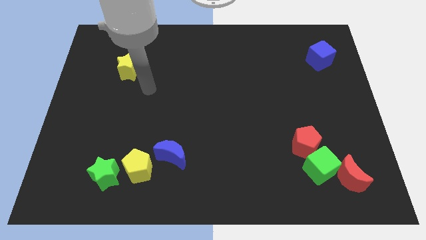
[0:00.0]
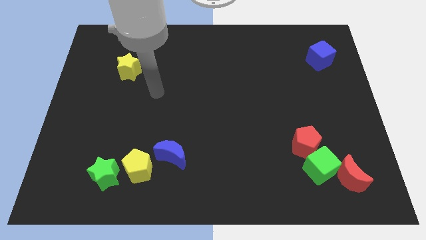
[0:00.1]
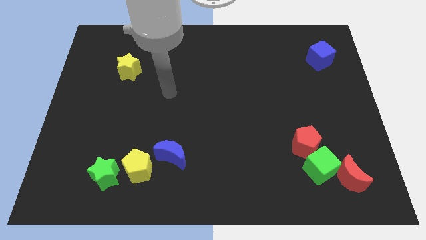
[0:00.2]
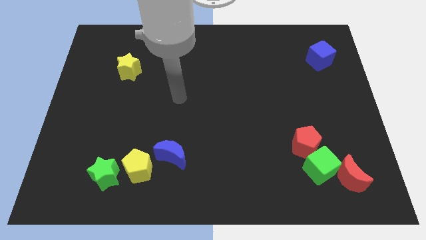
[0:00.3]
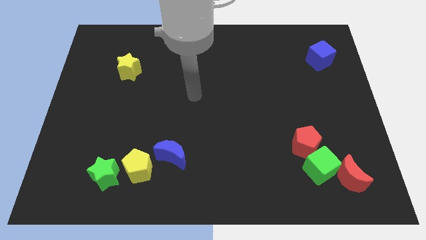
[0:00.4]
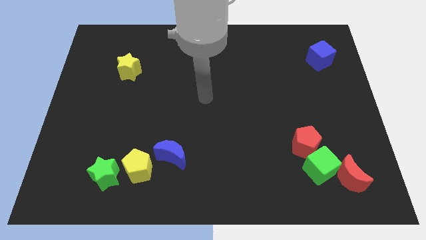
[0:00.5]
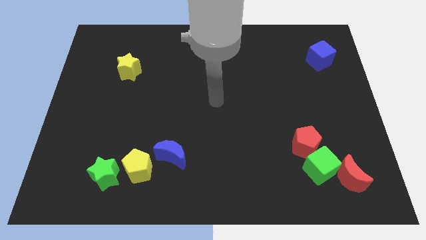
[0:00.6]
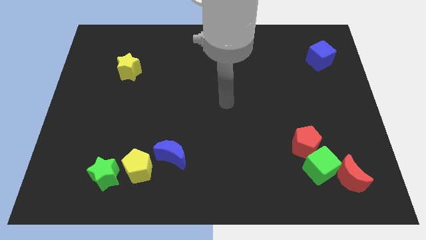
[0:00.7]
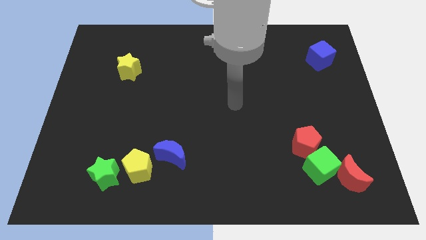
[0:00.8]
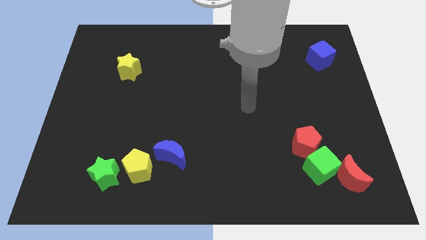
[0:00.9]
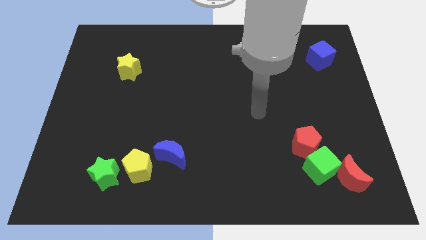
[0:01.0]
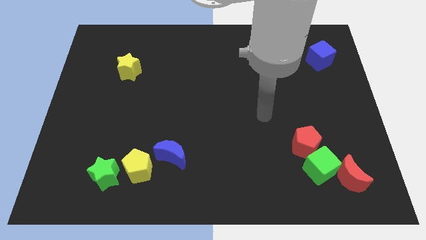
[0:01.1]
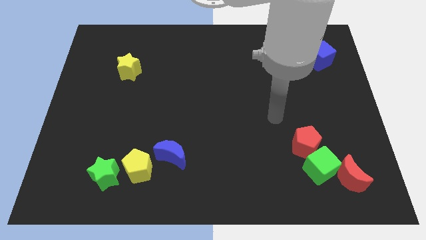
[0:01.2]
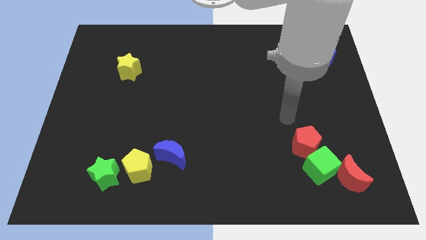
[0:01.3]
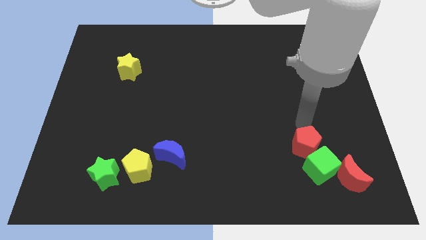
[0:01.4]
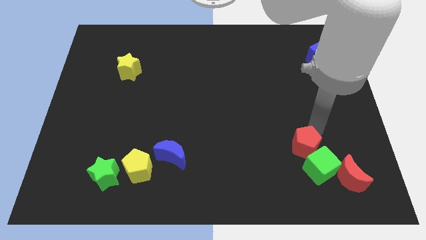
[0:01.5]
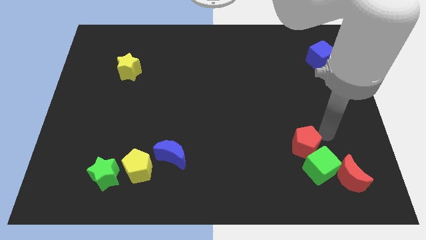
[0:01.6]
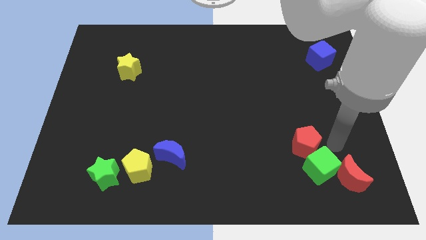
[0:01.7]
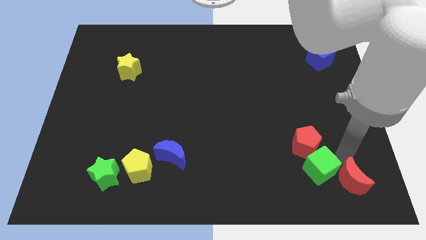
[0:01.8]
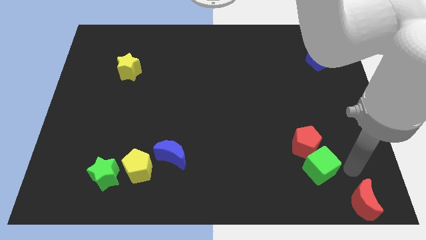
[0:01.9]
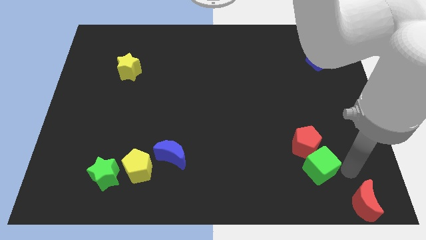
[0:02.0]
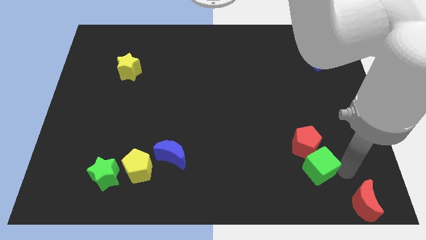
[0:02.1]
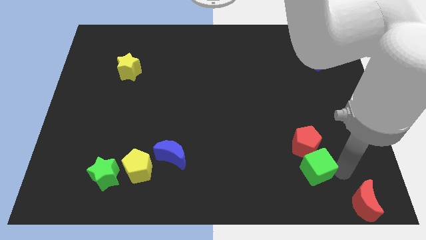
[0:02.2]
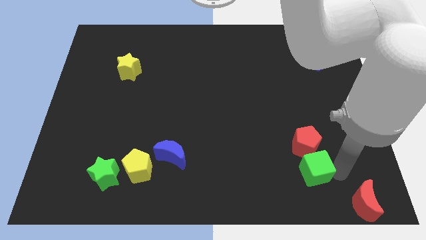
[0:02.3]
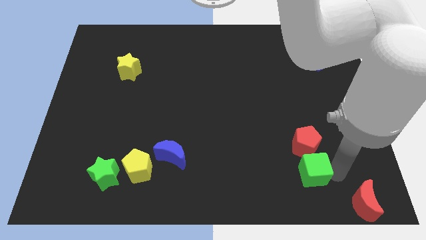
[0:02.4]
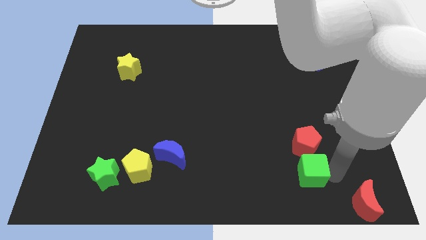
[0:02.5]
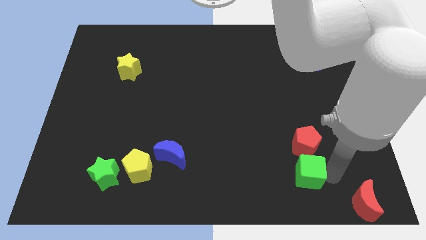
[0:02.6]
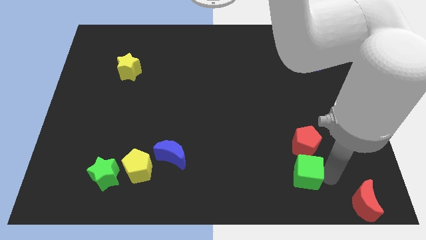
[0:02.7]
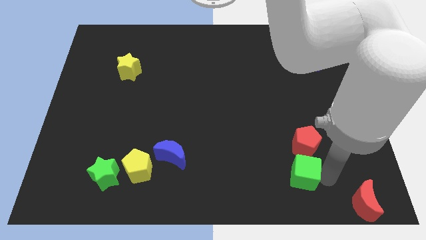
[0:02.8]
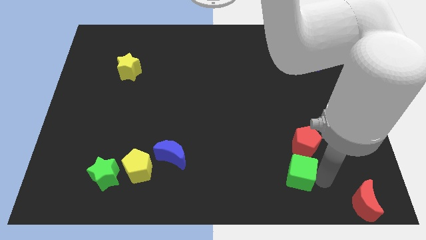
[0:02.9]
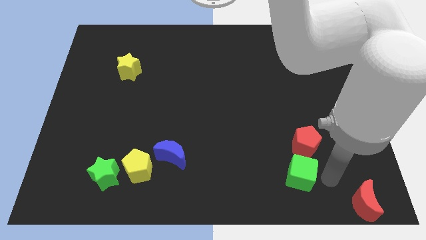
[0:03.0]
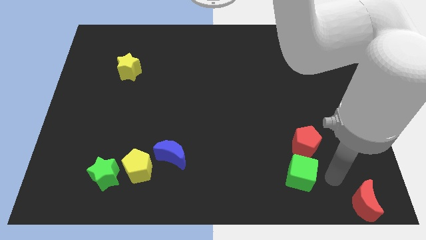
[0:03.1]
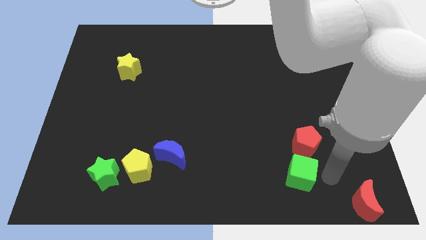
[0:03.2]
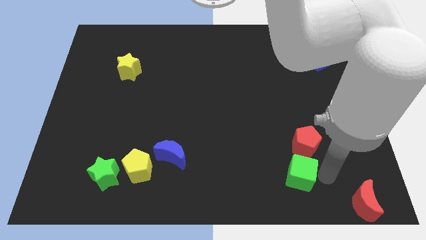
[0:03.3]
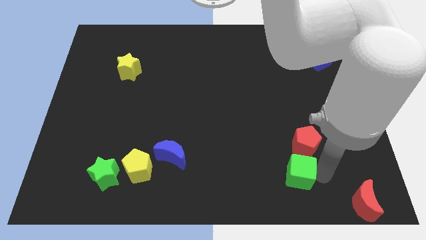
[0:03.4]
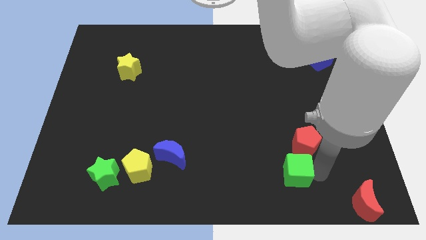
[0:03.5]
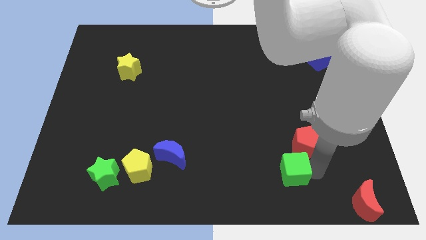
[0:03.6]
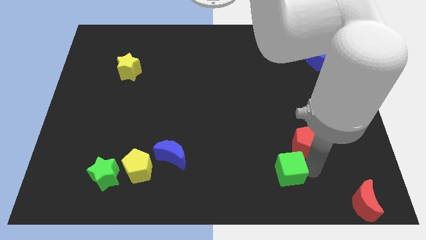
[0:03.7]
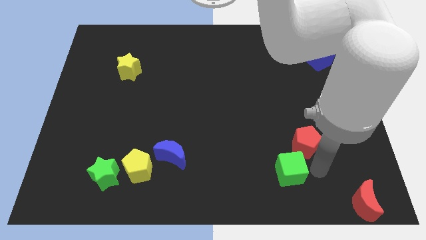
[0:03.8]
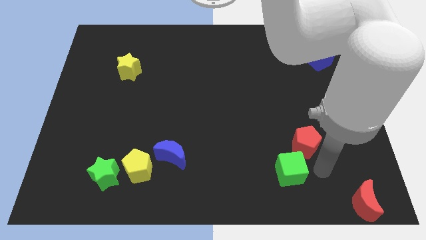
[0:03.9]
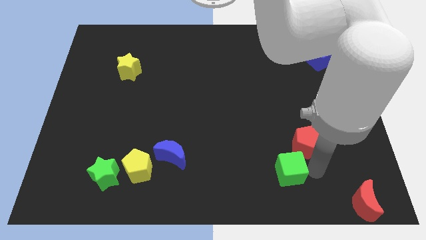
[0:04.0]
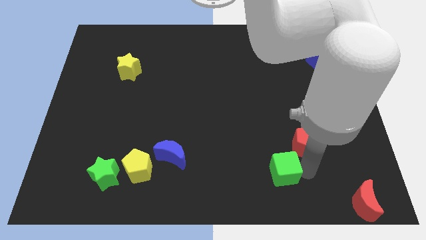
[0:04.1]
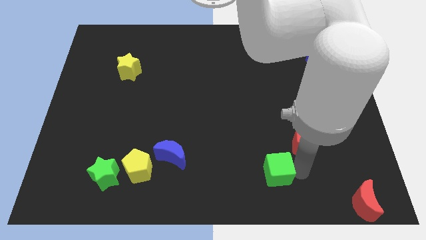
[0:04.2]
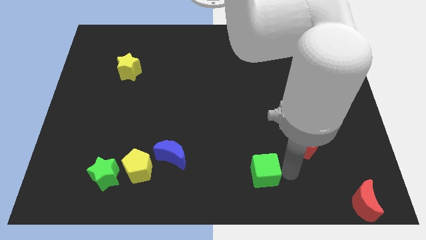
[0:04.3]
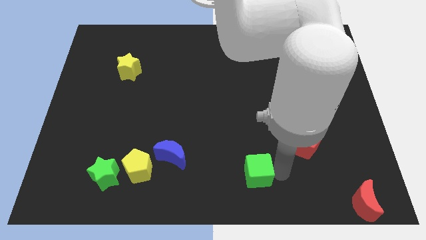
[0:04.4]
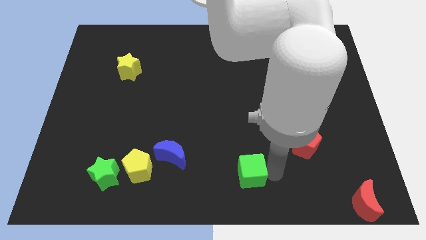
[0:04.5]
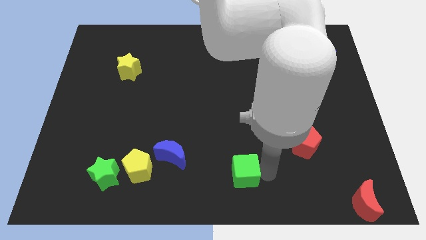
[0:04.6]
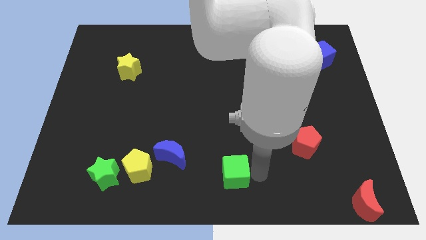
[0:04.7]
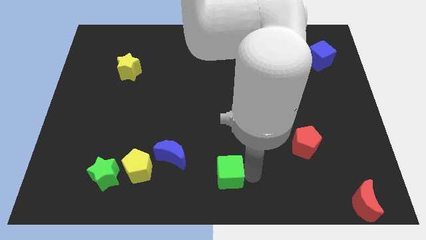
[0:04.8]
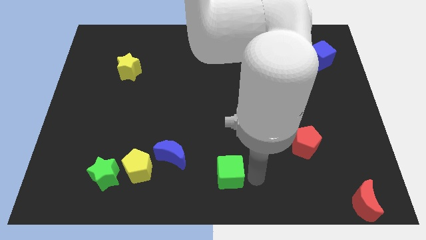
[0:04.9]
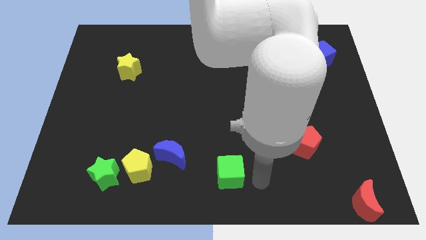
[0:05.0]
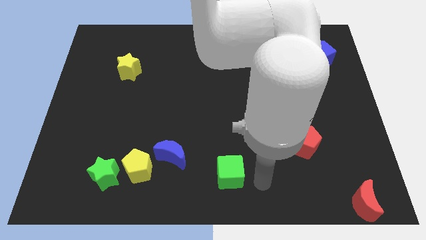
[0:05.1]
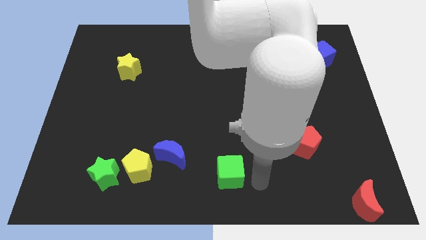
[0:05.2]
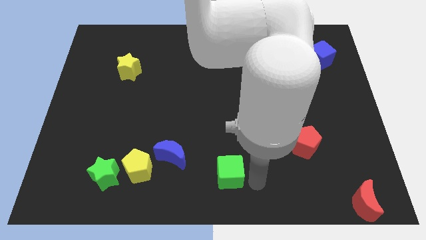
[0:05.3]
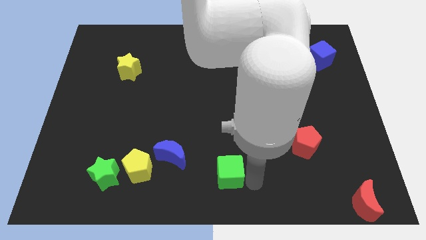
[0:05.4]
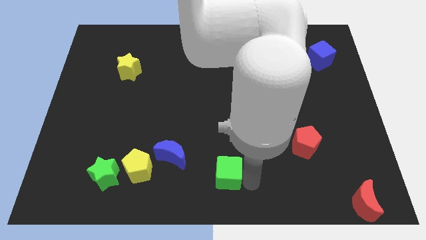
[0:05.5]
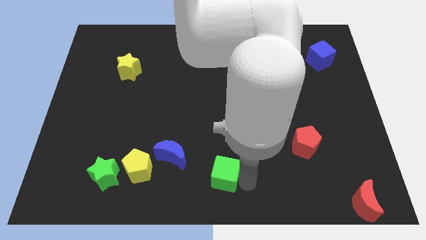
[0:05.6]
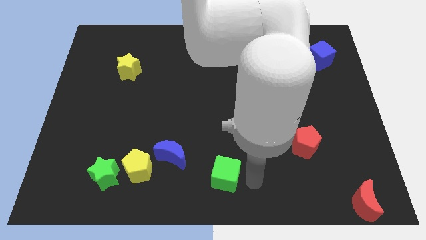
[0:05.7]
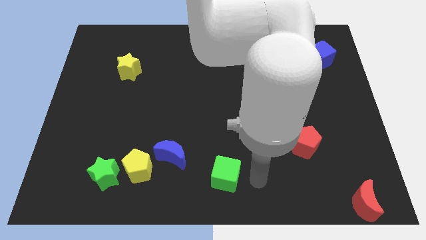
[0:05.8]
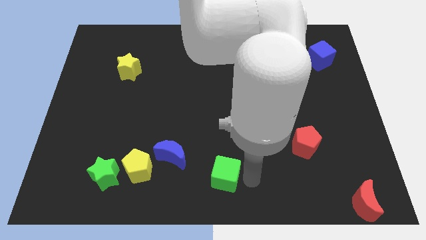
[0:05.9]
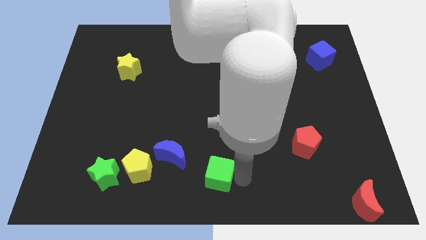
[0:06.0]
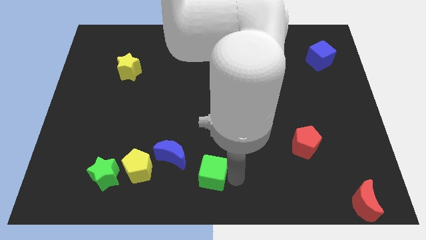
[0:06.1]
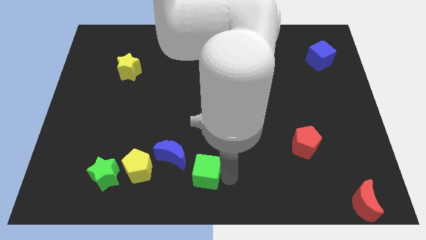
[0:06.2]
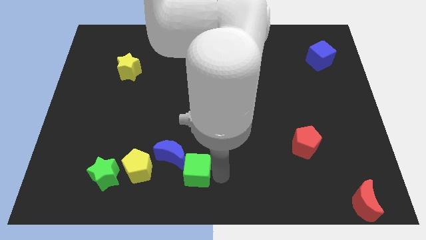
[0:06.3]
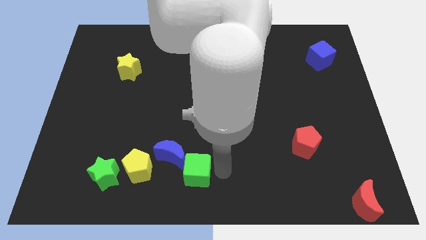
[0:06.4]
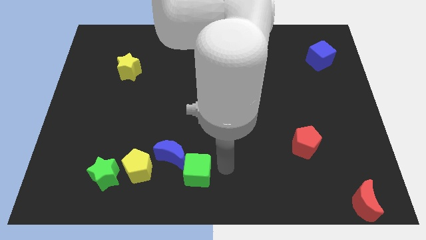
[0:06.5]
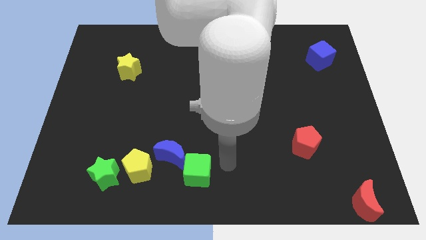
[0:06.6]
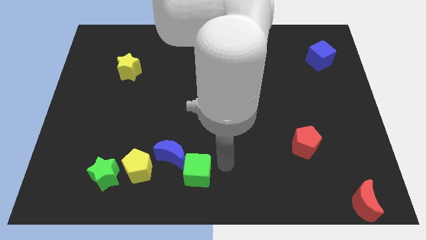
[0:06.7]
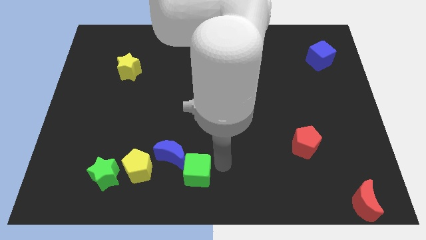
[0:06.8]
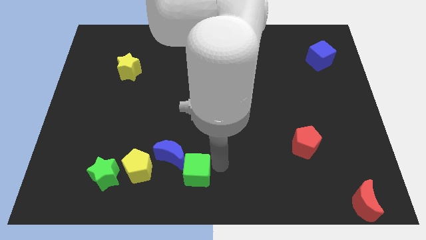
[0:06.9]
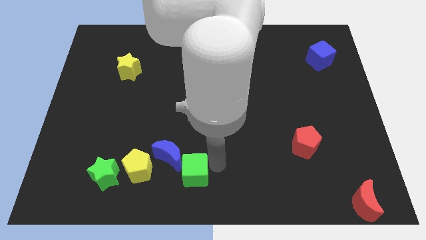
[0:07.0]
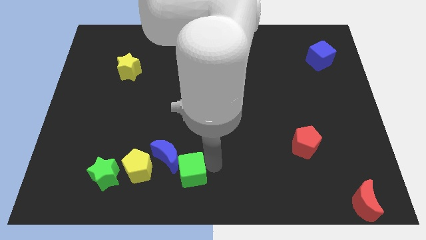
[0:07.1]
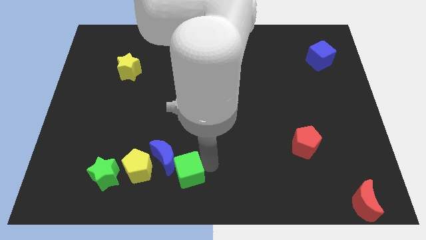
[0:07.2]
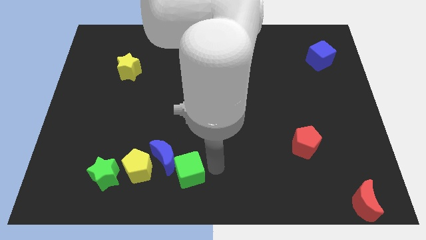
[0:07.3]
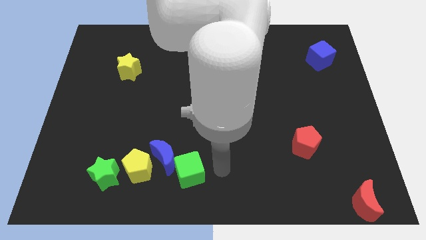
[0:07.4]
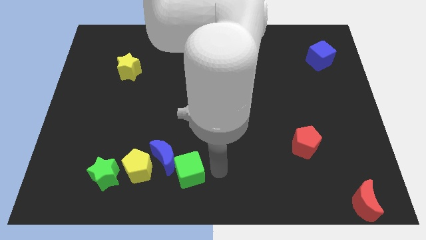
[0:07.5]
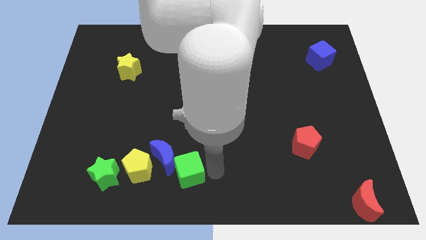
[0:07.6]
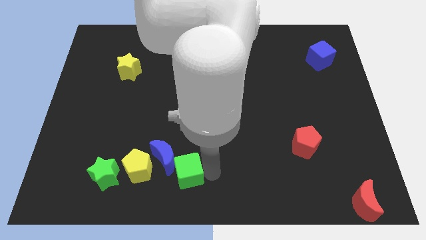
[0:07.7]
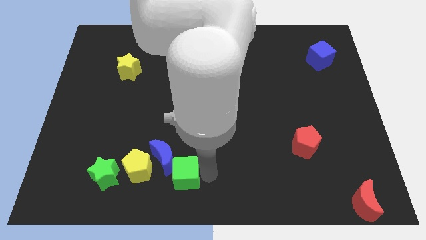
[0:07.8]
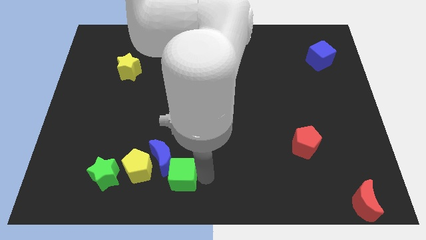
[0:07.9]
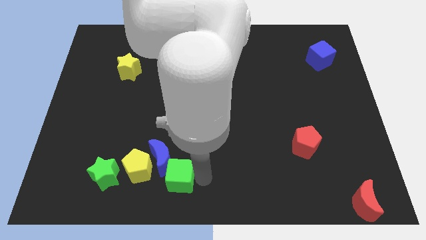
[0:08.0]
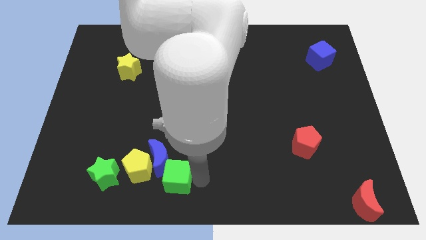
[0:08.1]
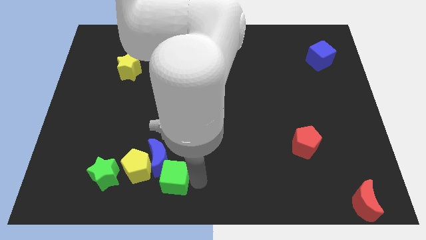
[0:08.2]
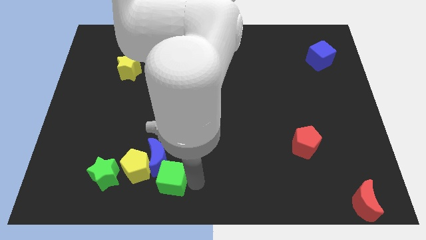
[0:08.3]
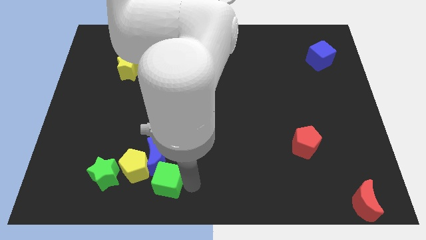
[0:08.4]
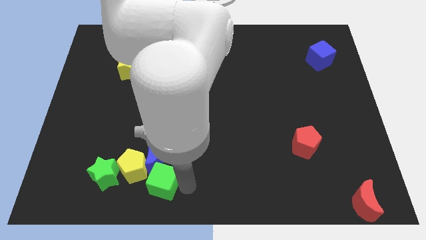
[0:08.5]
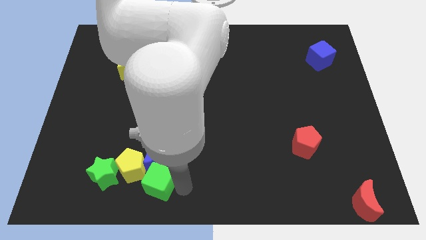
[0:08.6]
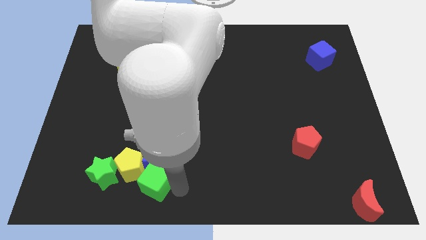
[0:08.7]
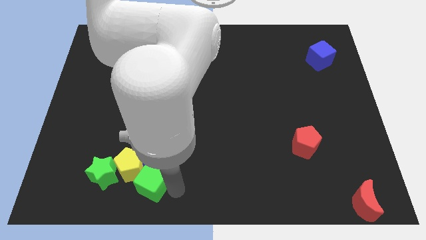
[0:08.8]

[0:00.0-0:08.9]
put the green cube next to the yellow pentagon
